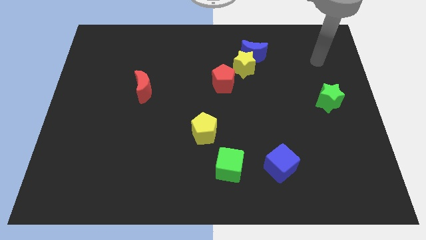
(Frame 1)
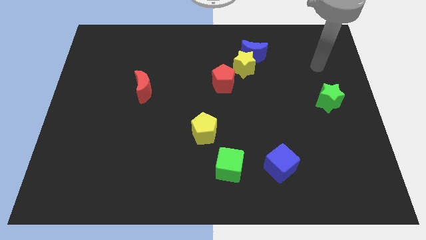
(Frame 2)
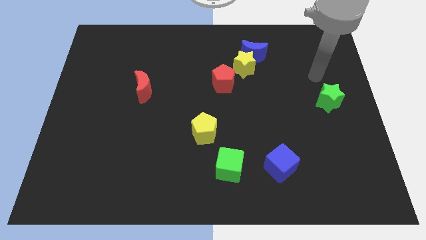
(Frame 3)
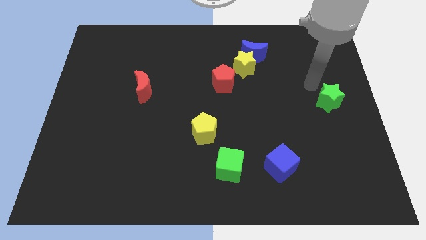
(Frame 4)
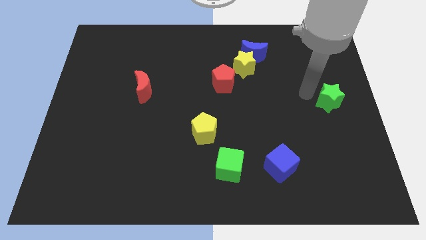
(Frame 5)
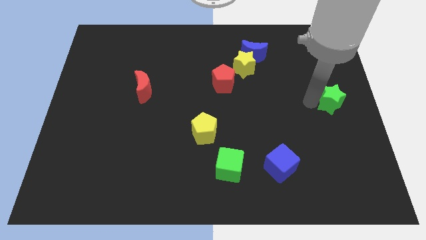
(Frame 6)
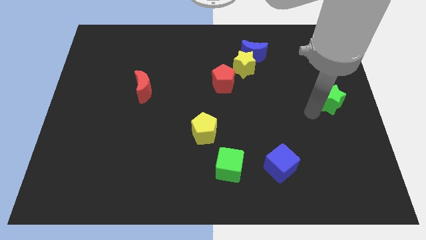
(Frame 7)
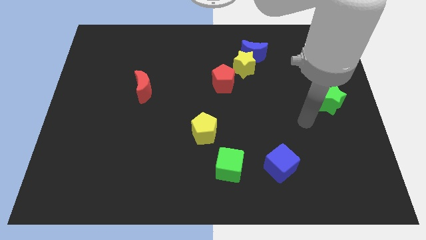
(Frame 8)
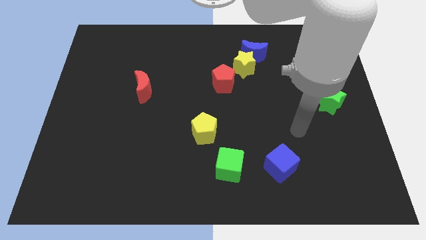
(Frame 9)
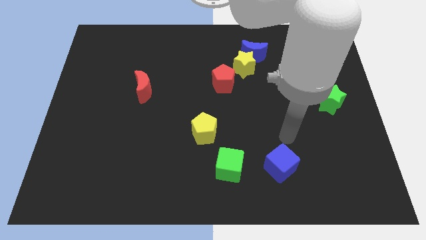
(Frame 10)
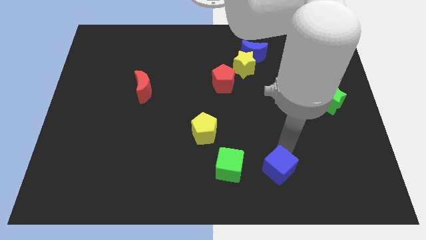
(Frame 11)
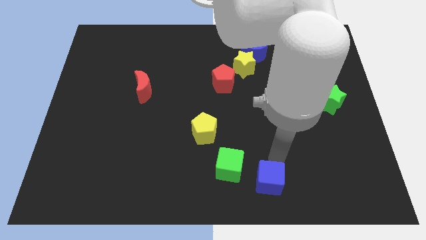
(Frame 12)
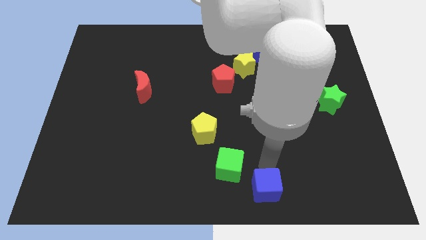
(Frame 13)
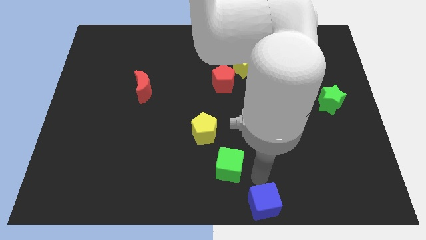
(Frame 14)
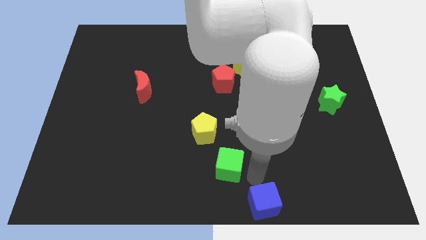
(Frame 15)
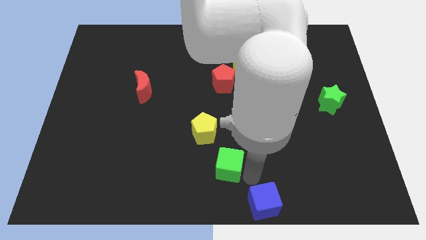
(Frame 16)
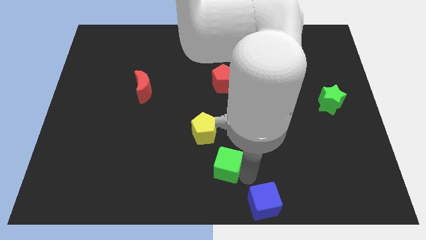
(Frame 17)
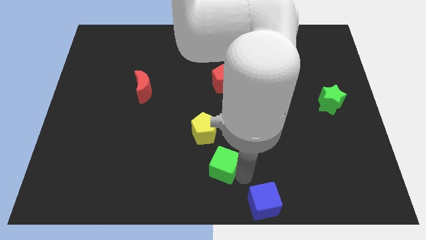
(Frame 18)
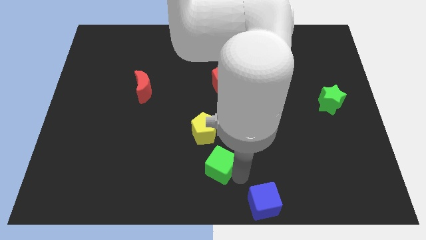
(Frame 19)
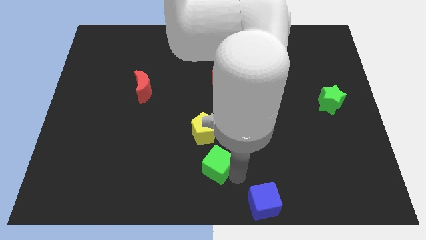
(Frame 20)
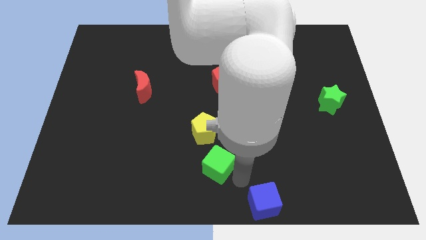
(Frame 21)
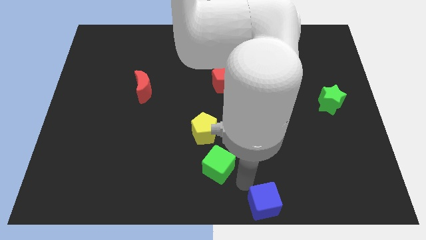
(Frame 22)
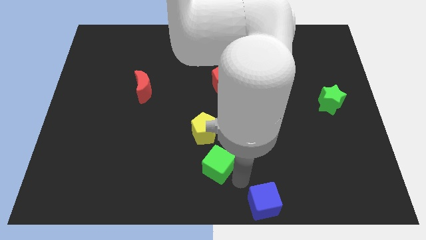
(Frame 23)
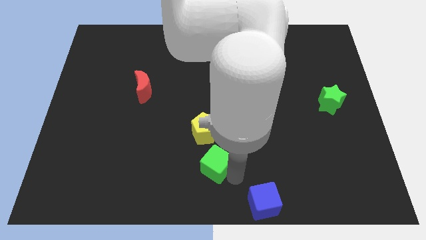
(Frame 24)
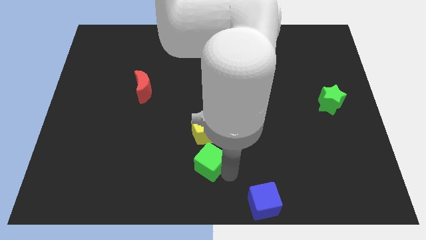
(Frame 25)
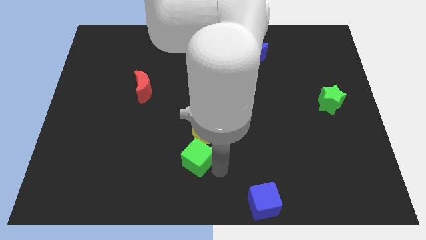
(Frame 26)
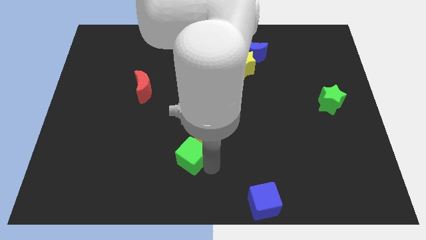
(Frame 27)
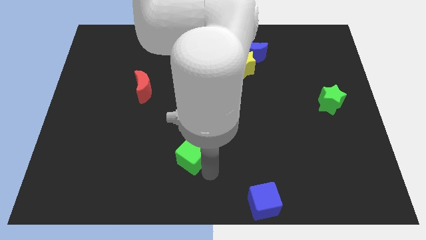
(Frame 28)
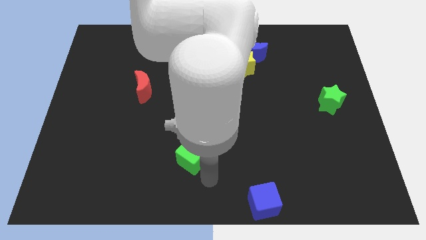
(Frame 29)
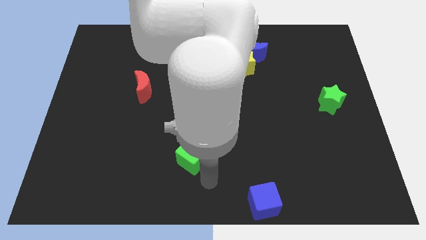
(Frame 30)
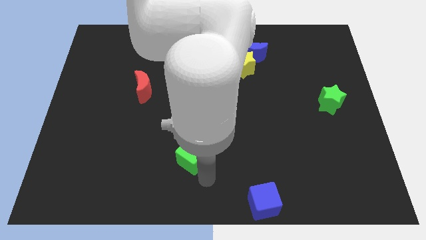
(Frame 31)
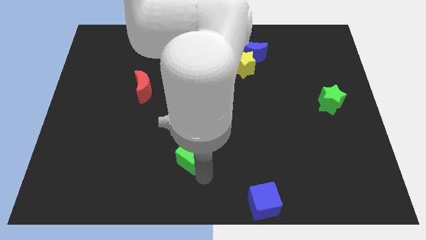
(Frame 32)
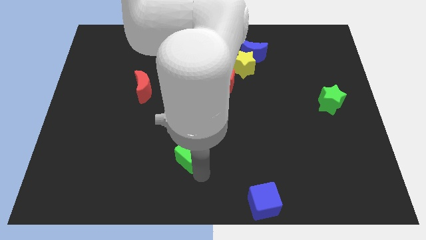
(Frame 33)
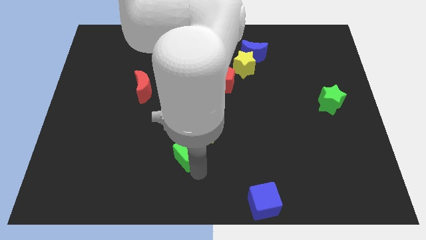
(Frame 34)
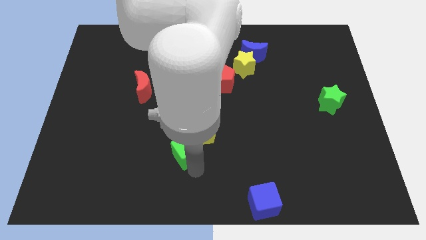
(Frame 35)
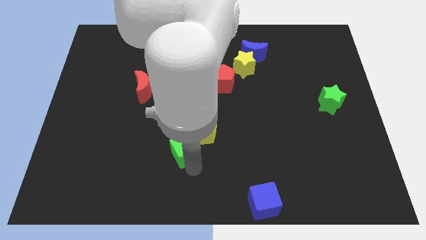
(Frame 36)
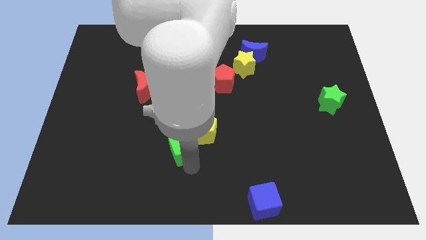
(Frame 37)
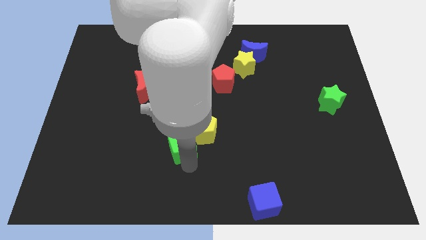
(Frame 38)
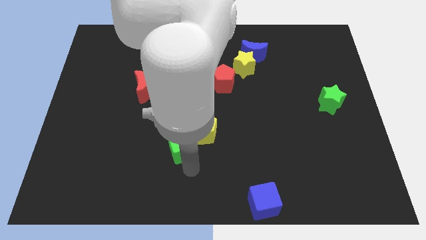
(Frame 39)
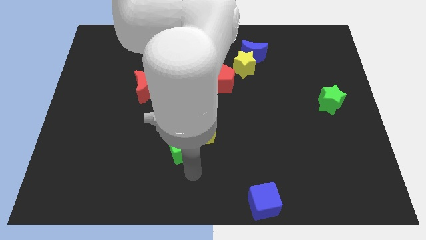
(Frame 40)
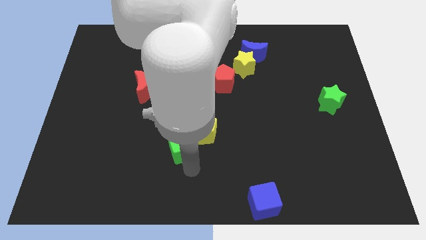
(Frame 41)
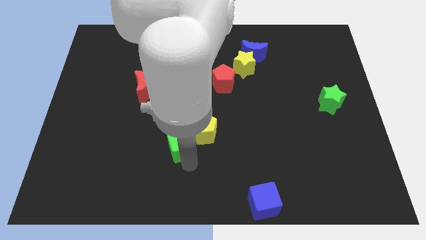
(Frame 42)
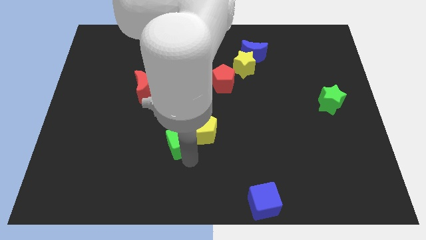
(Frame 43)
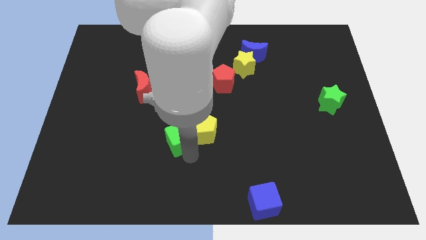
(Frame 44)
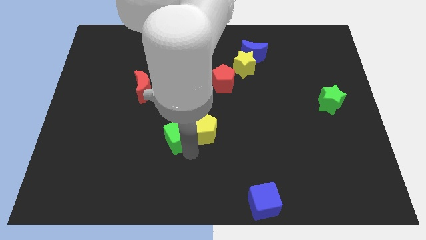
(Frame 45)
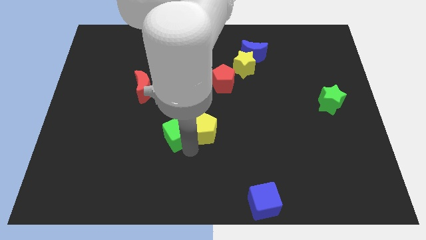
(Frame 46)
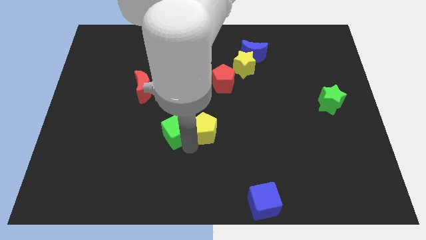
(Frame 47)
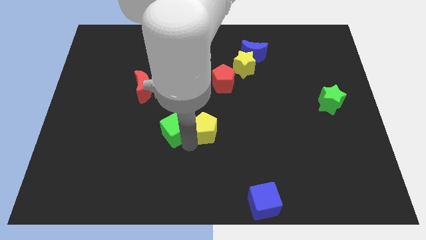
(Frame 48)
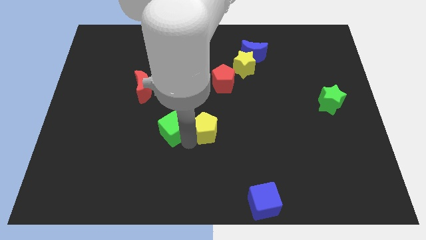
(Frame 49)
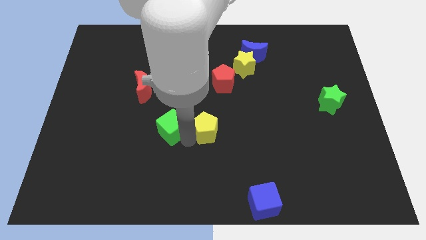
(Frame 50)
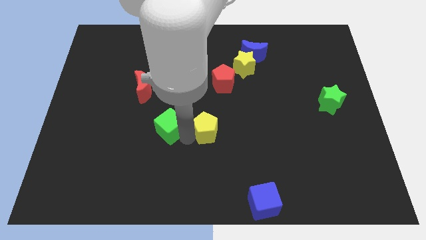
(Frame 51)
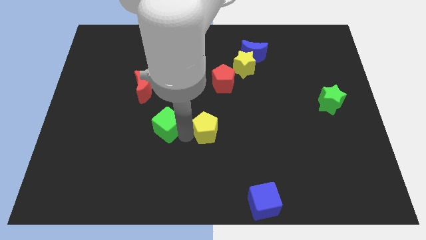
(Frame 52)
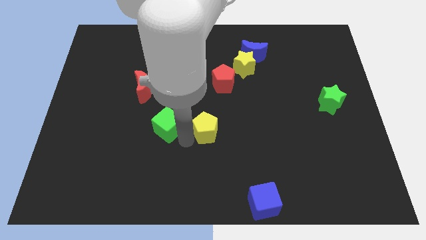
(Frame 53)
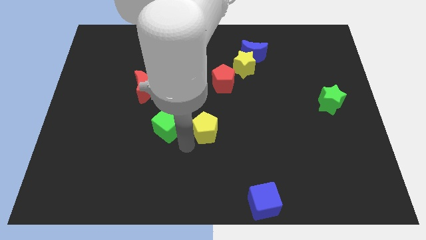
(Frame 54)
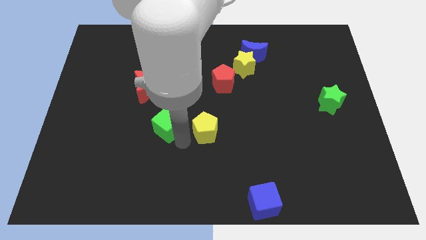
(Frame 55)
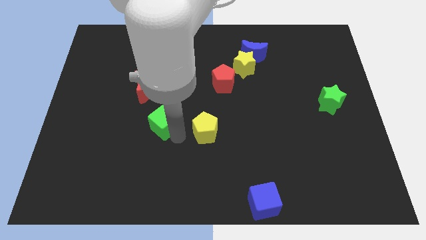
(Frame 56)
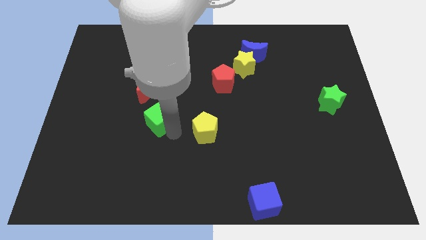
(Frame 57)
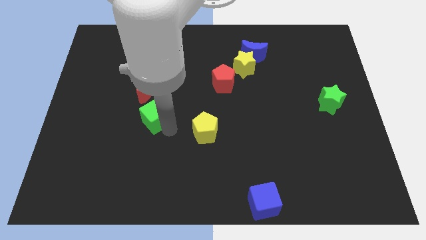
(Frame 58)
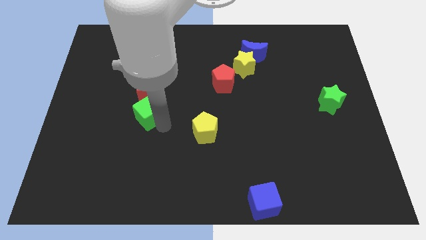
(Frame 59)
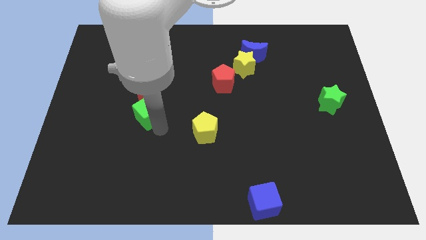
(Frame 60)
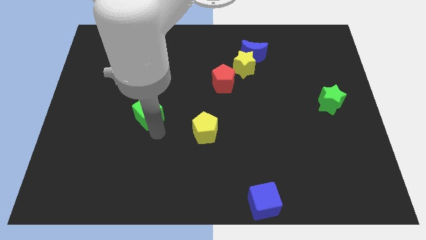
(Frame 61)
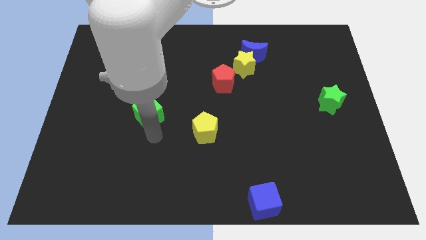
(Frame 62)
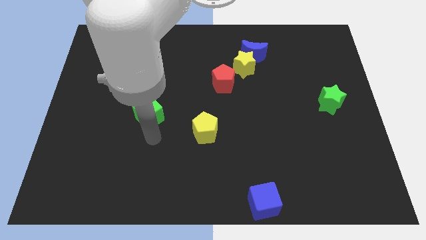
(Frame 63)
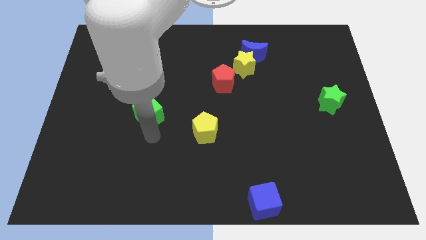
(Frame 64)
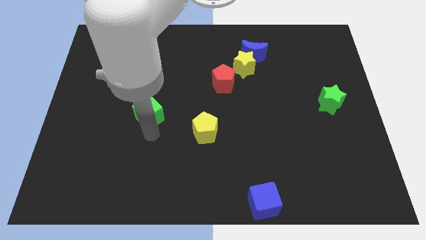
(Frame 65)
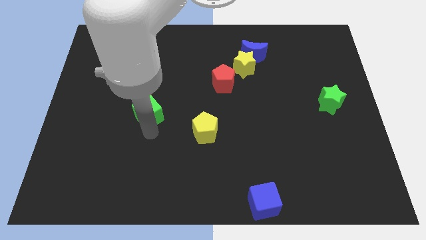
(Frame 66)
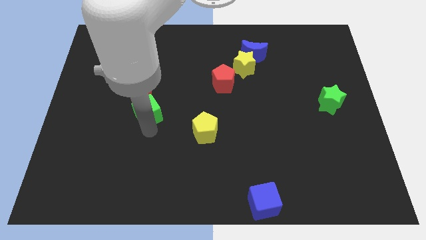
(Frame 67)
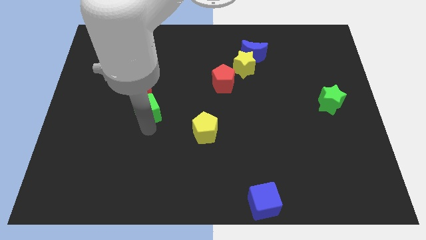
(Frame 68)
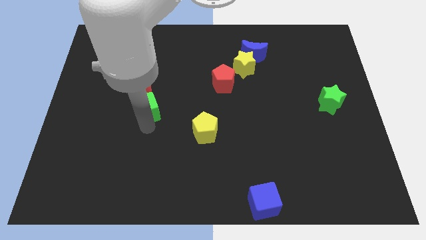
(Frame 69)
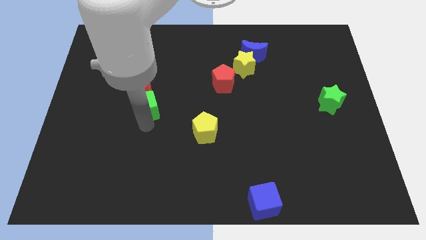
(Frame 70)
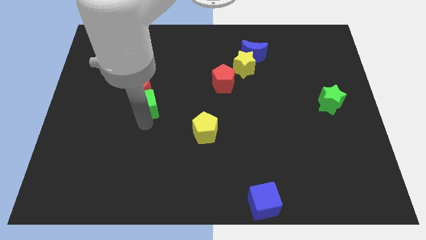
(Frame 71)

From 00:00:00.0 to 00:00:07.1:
push the green cube close to the red moon
